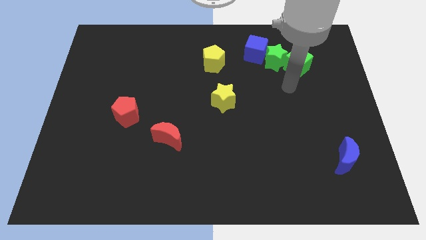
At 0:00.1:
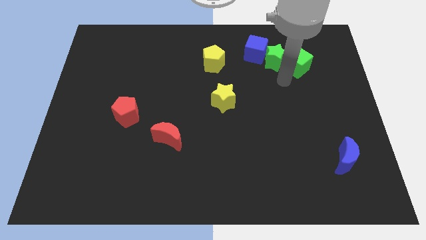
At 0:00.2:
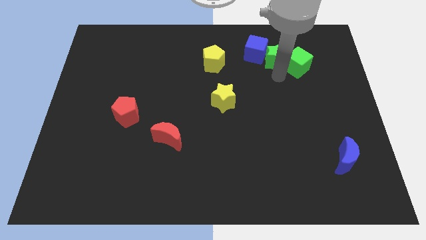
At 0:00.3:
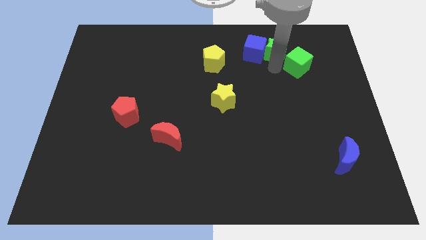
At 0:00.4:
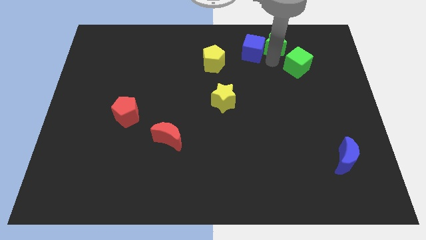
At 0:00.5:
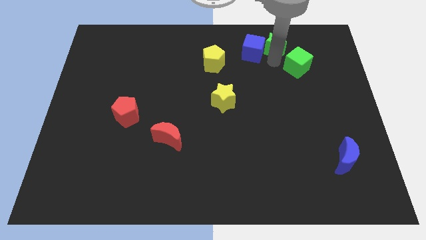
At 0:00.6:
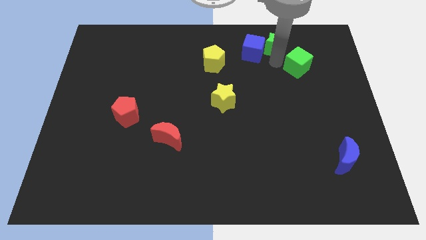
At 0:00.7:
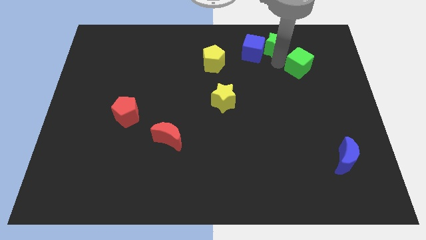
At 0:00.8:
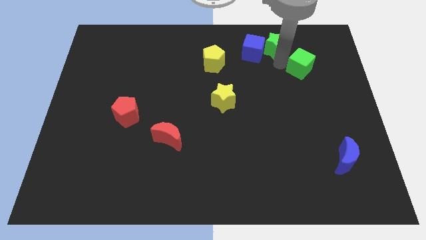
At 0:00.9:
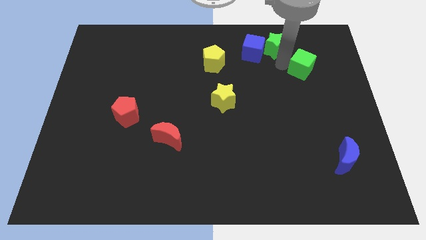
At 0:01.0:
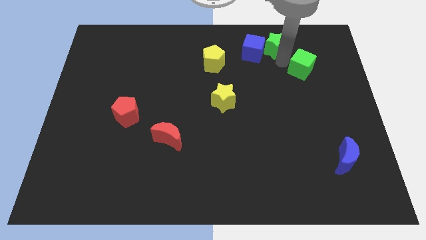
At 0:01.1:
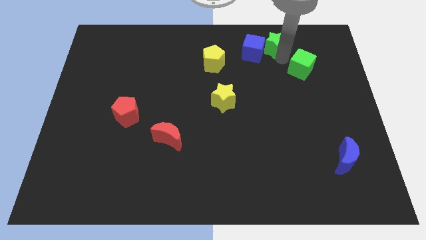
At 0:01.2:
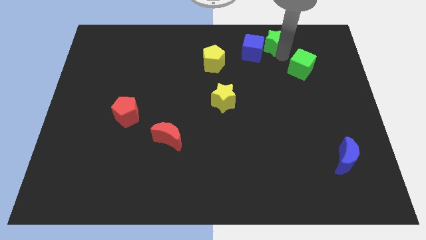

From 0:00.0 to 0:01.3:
move the green cube away from the green star

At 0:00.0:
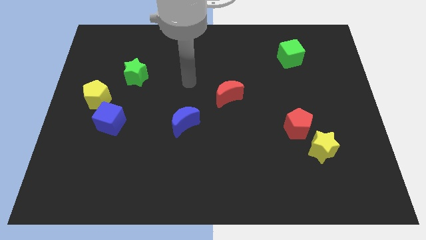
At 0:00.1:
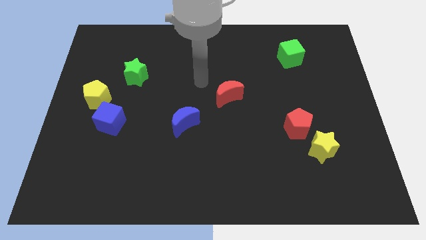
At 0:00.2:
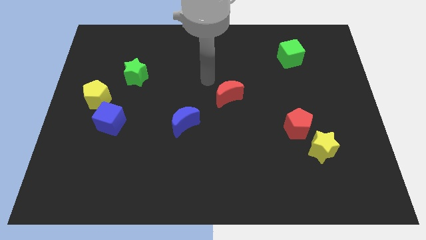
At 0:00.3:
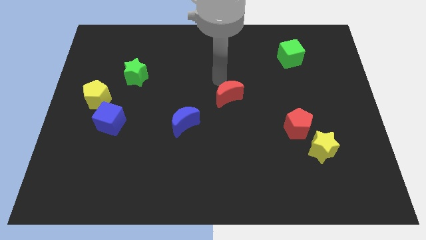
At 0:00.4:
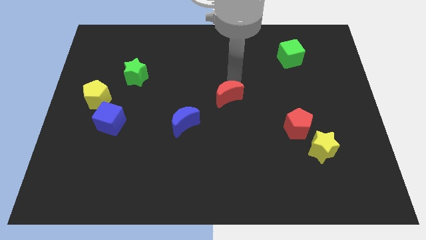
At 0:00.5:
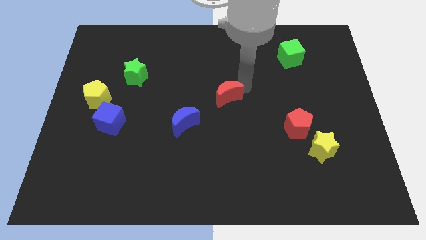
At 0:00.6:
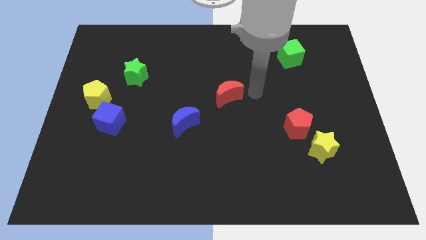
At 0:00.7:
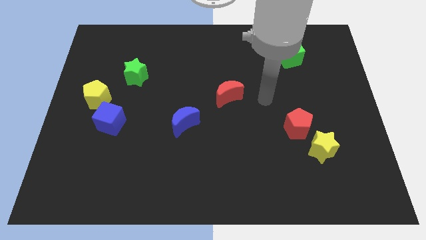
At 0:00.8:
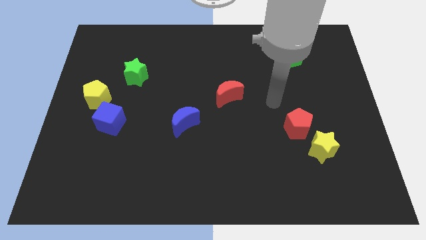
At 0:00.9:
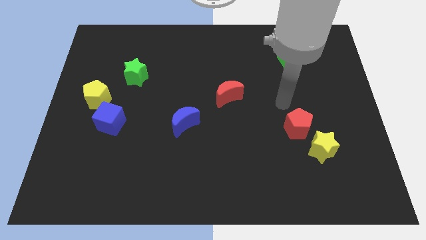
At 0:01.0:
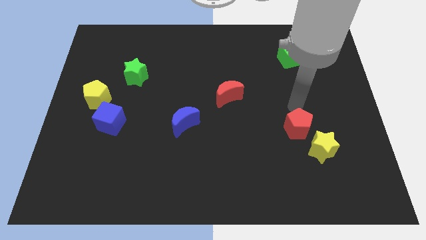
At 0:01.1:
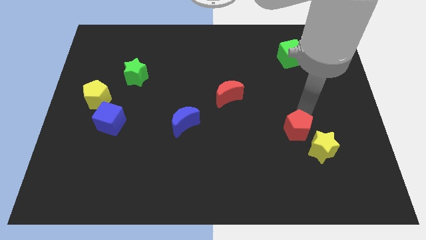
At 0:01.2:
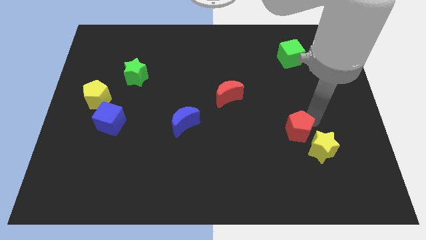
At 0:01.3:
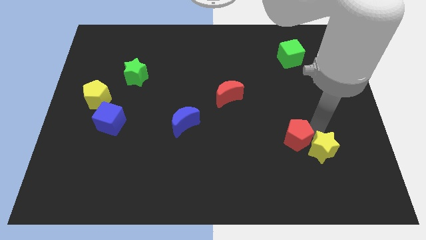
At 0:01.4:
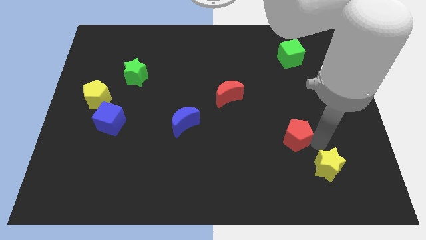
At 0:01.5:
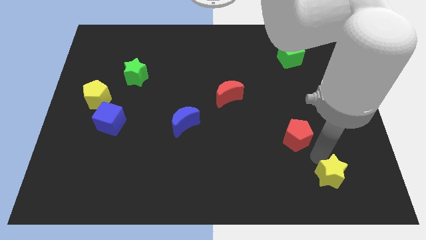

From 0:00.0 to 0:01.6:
separate the red pentagon from the yellow star

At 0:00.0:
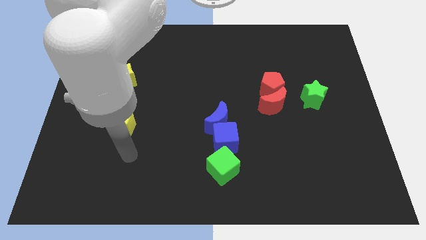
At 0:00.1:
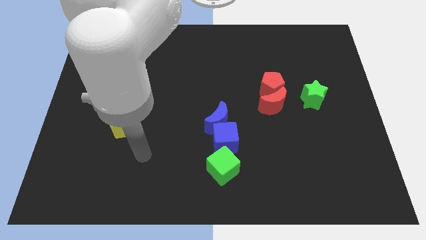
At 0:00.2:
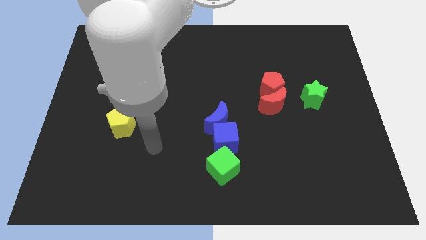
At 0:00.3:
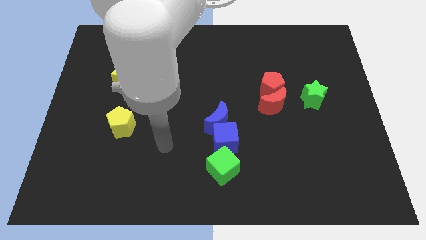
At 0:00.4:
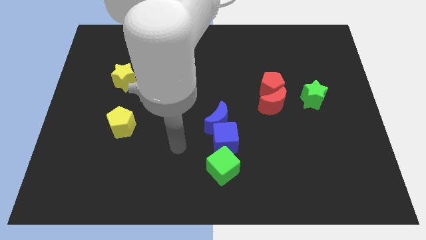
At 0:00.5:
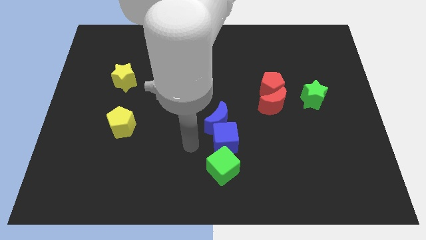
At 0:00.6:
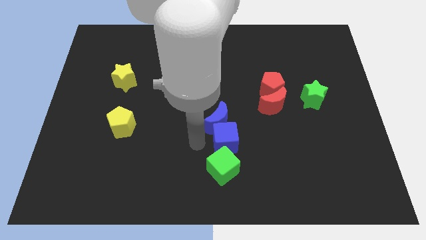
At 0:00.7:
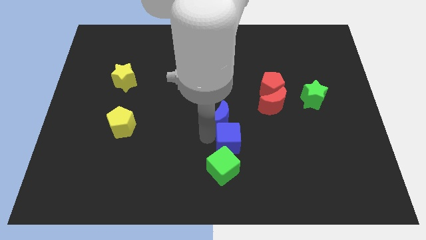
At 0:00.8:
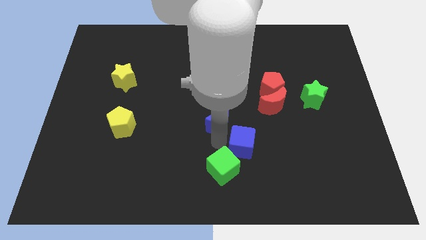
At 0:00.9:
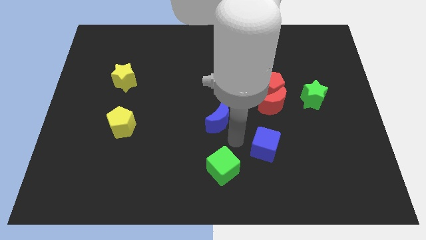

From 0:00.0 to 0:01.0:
pull the blue moon apart from the blue cube

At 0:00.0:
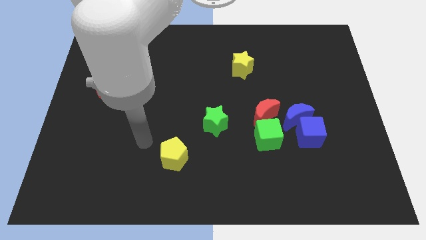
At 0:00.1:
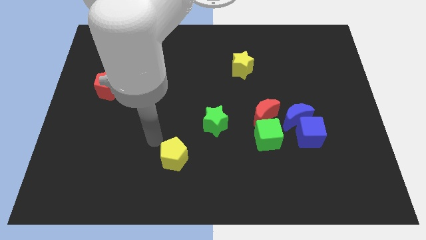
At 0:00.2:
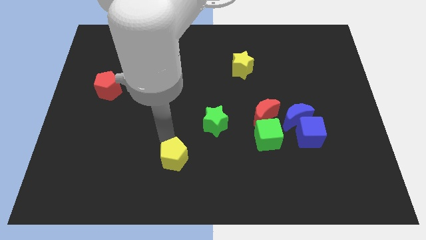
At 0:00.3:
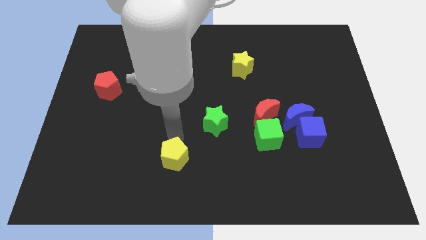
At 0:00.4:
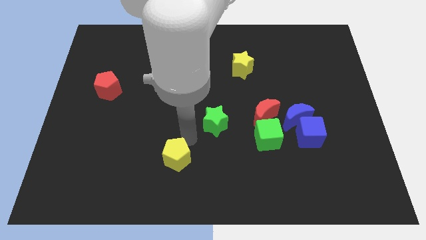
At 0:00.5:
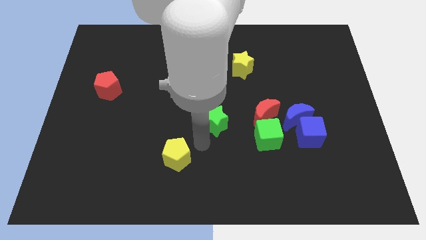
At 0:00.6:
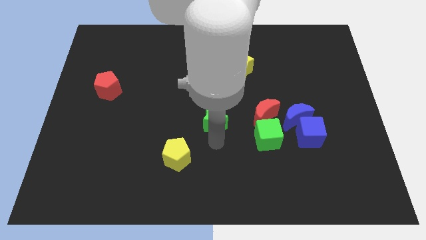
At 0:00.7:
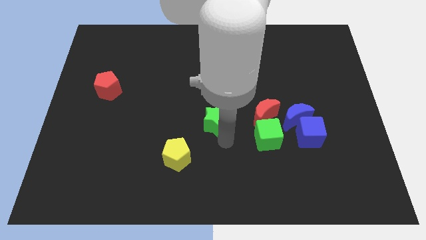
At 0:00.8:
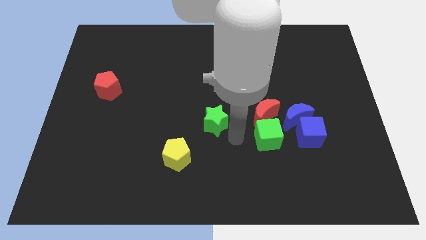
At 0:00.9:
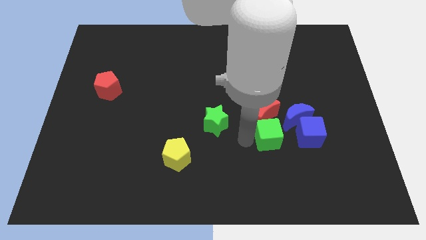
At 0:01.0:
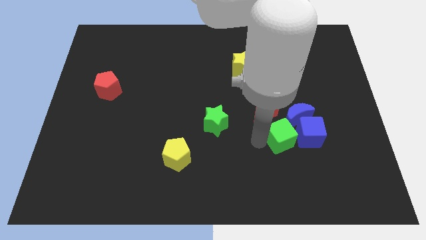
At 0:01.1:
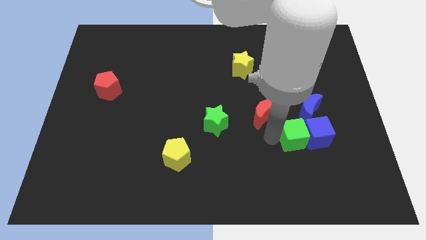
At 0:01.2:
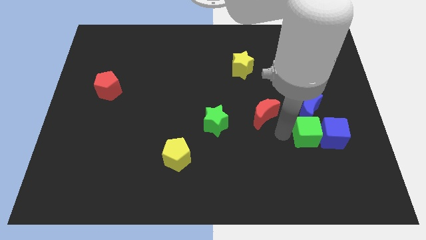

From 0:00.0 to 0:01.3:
separate the red moon from the green cube and blue moon

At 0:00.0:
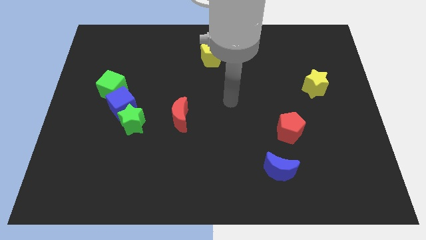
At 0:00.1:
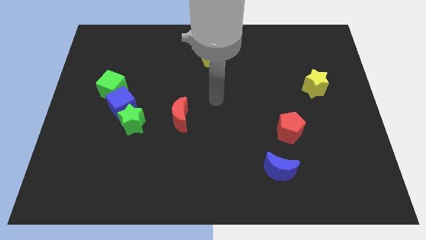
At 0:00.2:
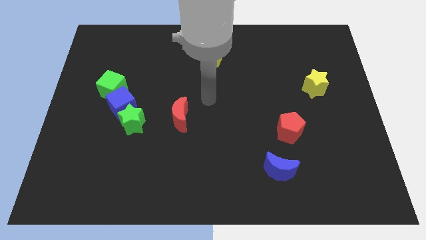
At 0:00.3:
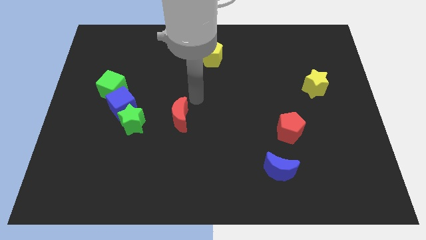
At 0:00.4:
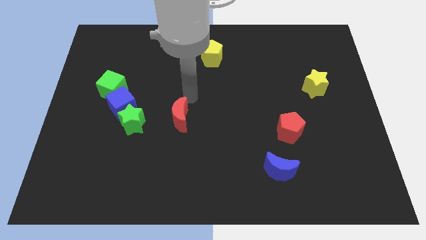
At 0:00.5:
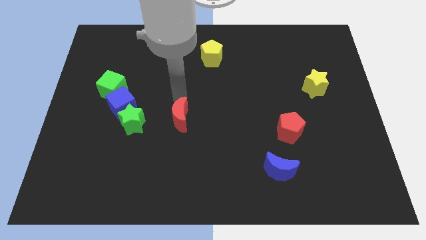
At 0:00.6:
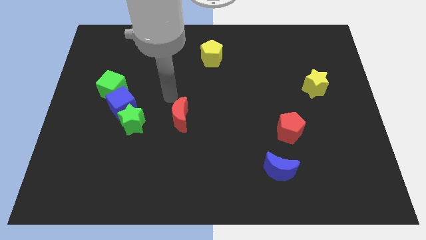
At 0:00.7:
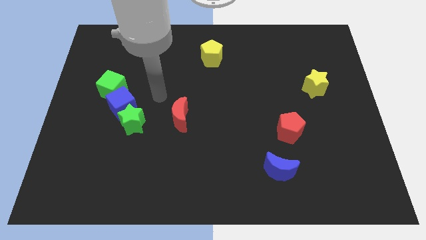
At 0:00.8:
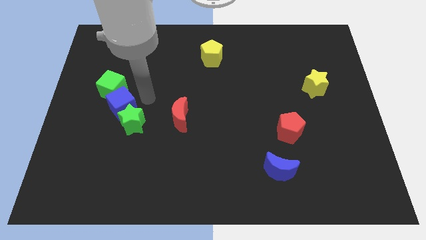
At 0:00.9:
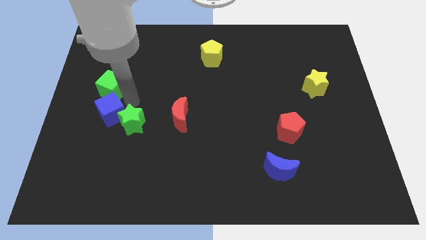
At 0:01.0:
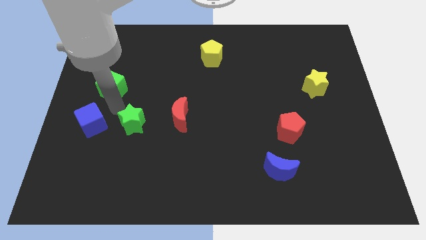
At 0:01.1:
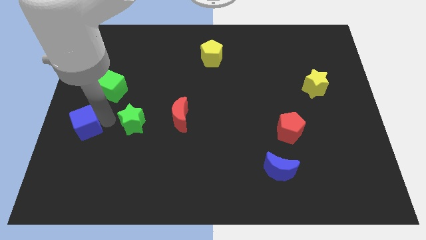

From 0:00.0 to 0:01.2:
separate the green star from the blue cube

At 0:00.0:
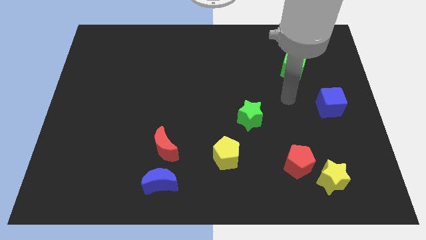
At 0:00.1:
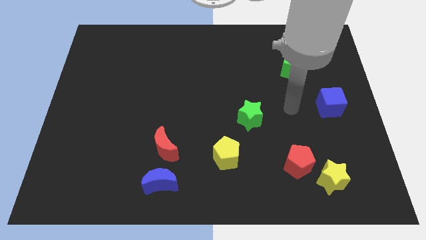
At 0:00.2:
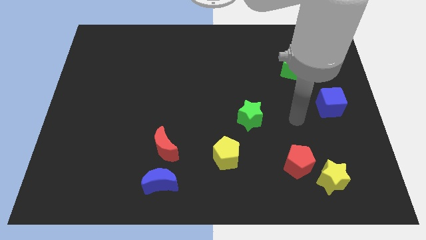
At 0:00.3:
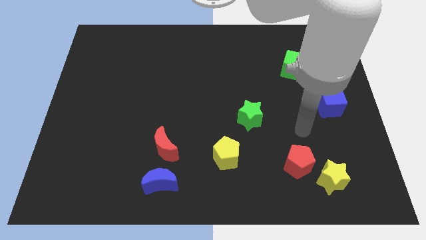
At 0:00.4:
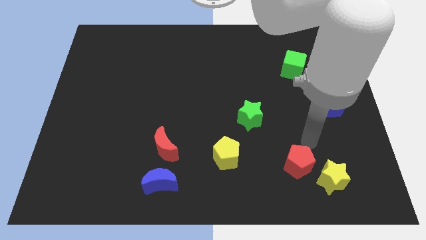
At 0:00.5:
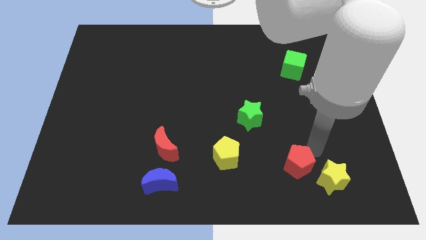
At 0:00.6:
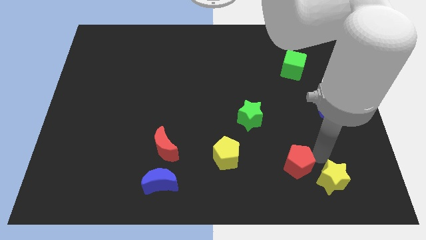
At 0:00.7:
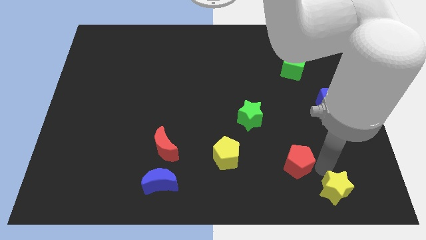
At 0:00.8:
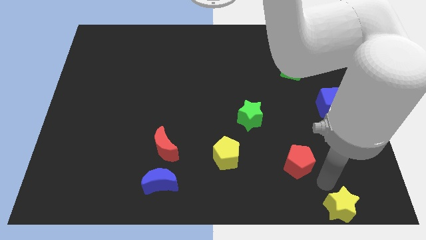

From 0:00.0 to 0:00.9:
pull the red pentagon apart from the yellow star

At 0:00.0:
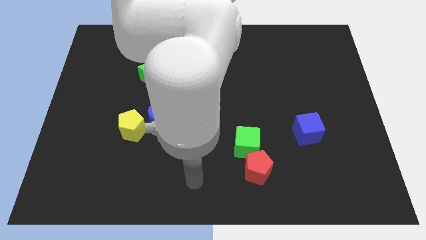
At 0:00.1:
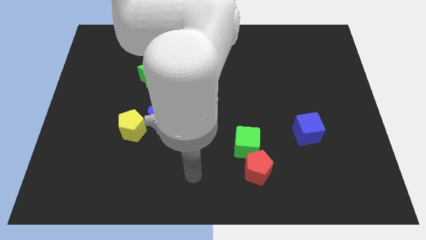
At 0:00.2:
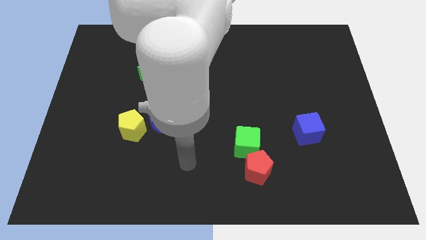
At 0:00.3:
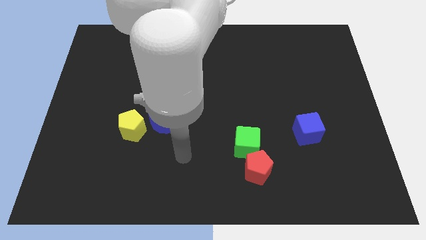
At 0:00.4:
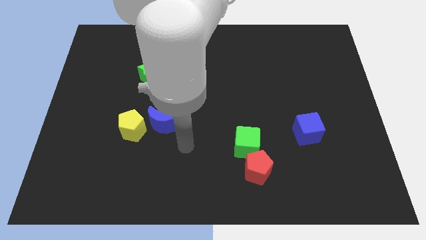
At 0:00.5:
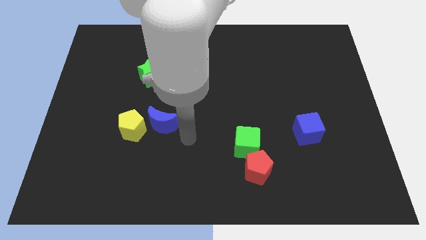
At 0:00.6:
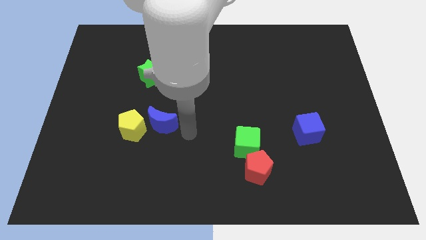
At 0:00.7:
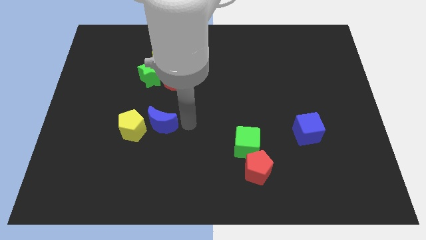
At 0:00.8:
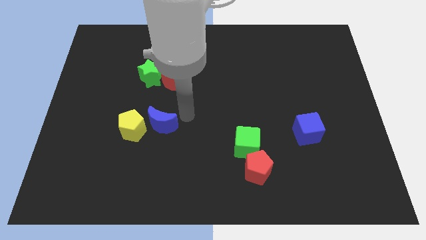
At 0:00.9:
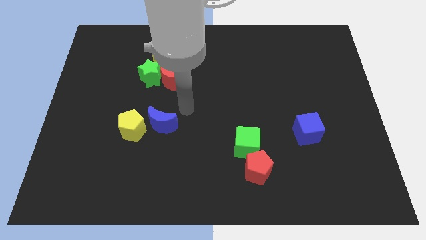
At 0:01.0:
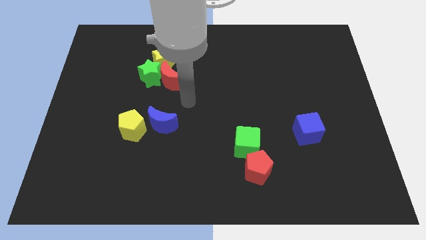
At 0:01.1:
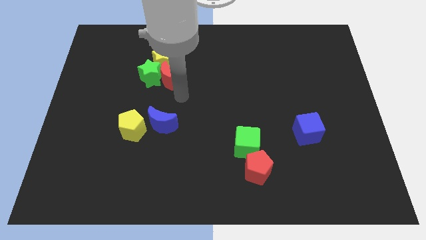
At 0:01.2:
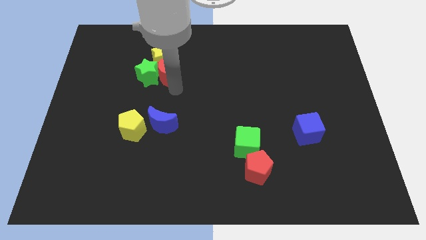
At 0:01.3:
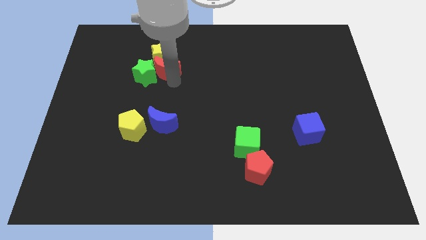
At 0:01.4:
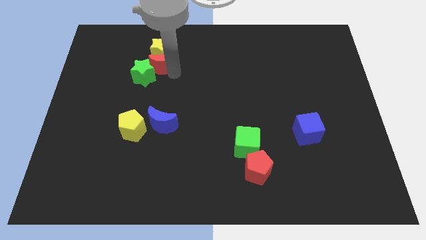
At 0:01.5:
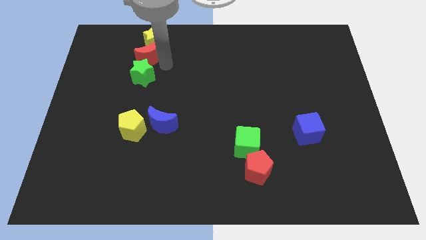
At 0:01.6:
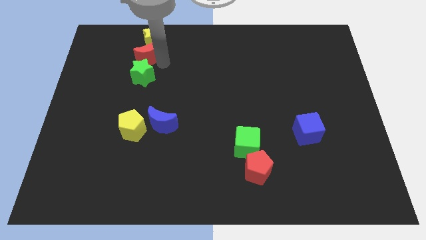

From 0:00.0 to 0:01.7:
move the green star away from the red moon and yellow star

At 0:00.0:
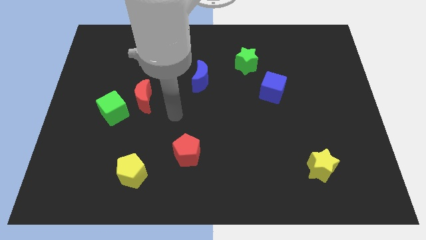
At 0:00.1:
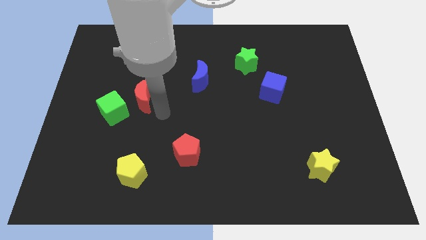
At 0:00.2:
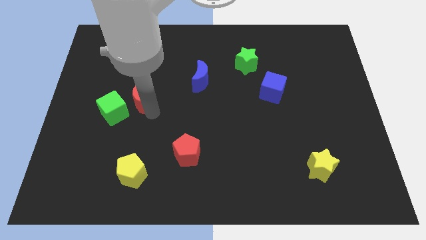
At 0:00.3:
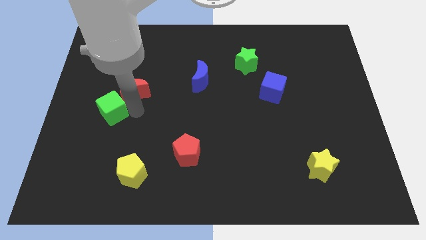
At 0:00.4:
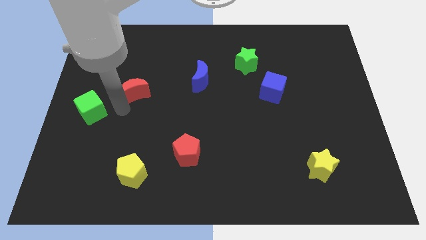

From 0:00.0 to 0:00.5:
move the red moon away from the green cube
